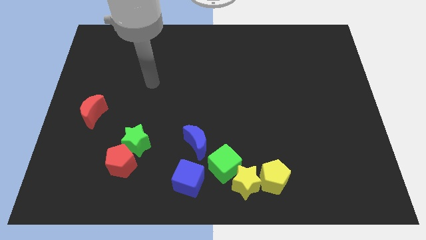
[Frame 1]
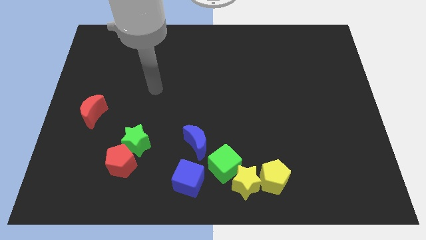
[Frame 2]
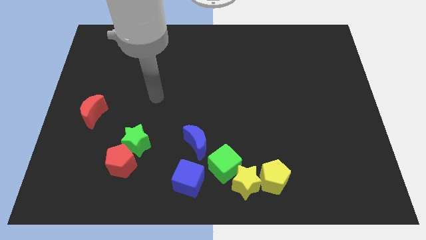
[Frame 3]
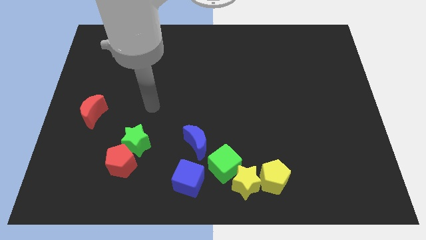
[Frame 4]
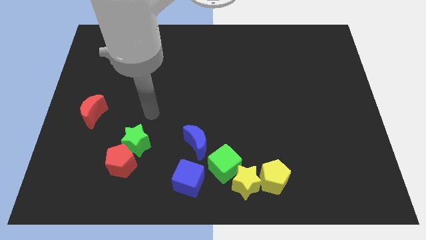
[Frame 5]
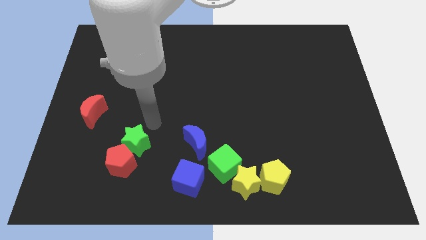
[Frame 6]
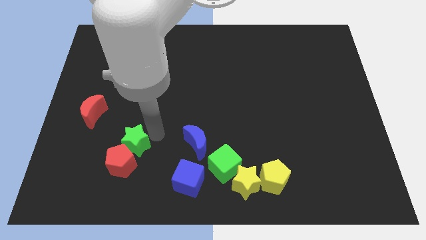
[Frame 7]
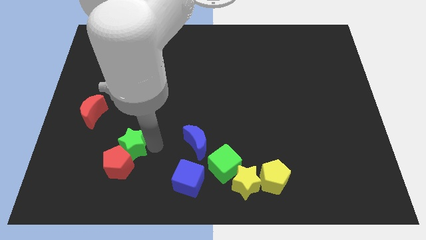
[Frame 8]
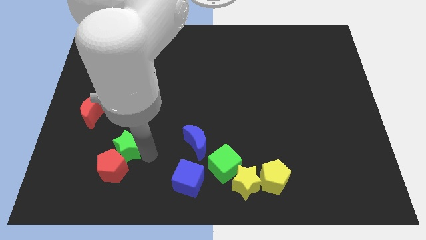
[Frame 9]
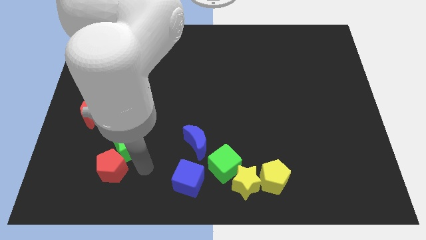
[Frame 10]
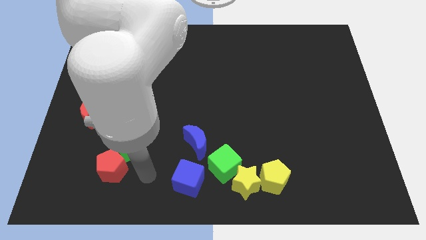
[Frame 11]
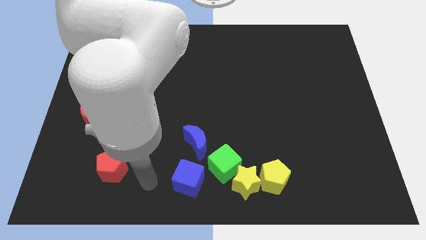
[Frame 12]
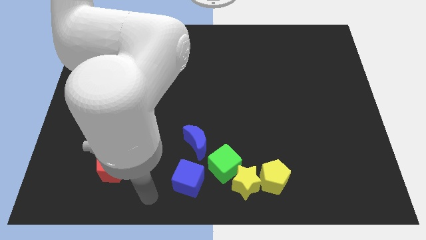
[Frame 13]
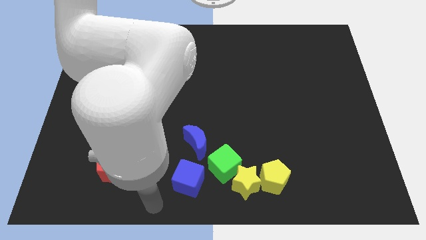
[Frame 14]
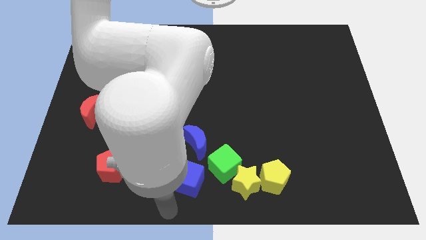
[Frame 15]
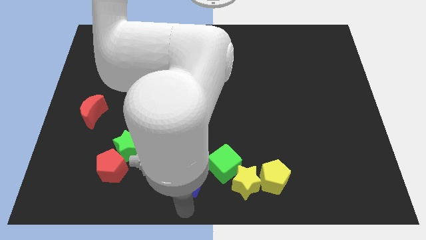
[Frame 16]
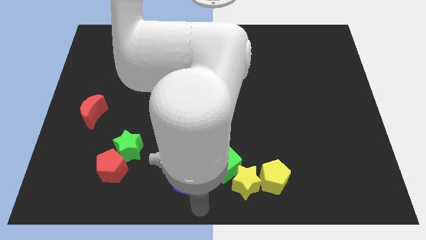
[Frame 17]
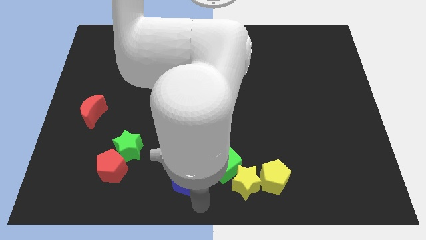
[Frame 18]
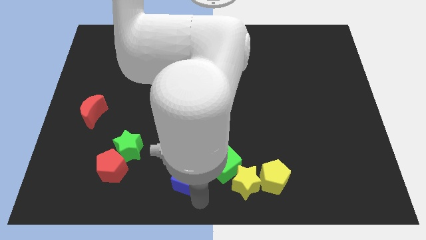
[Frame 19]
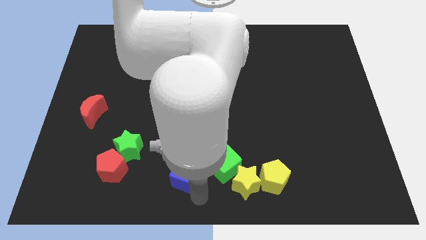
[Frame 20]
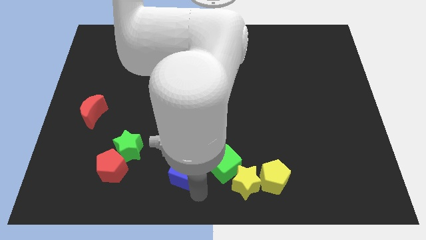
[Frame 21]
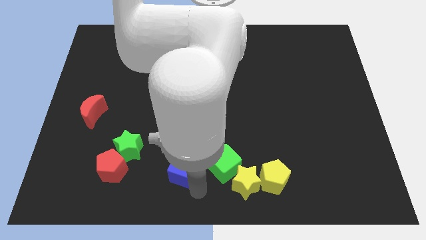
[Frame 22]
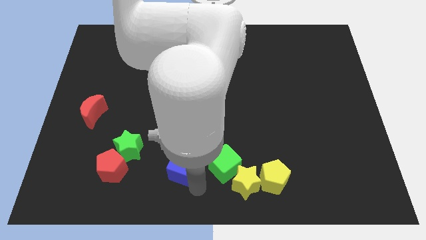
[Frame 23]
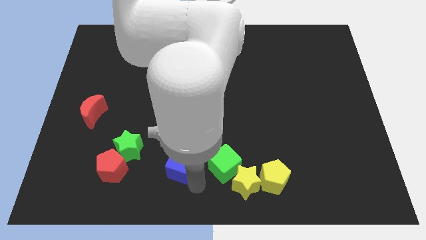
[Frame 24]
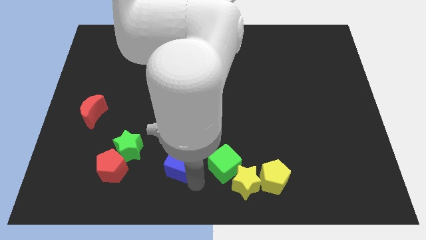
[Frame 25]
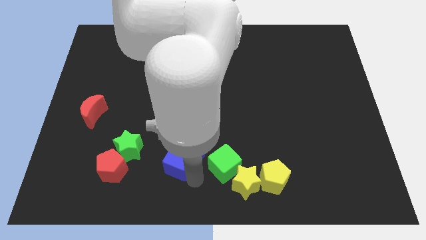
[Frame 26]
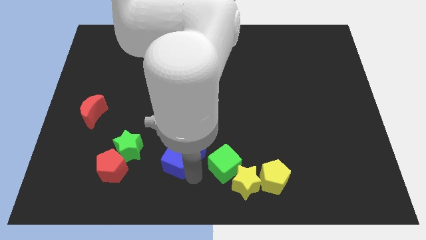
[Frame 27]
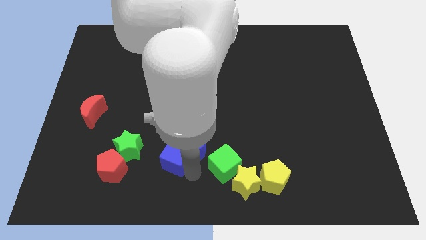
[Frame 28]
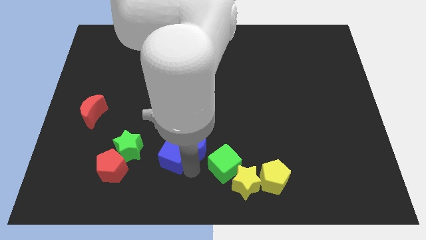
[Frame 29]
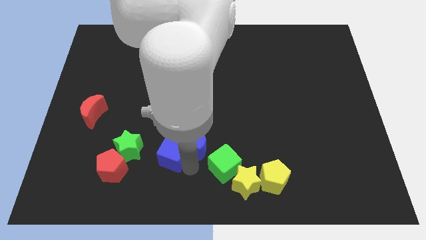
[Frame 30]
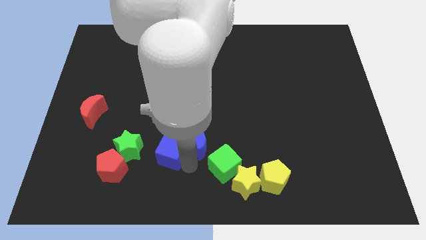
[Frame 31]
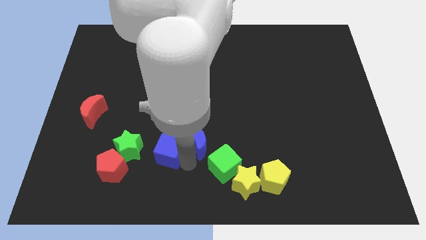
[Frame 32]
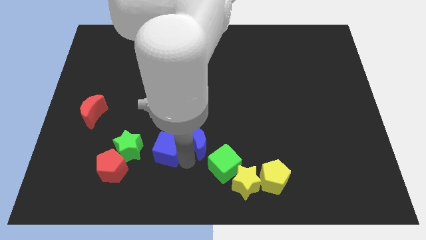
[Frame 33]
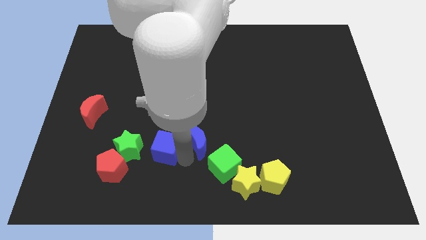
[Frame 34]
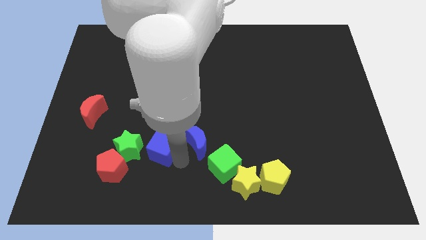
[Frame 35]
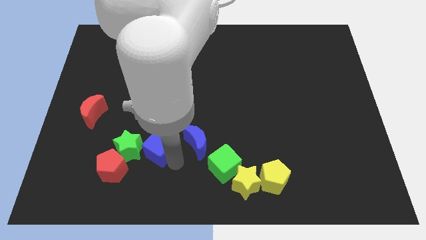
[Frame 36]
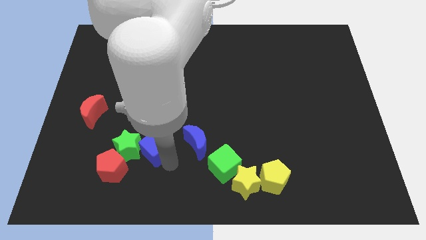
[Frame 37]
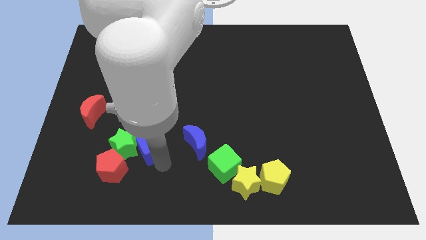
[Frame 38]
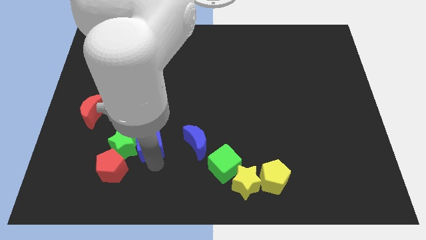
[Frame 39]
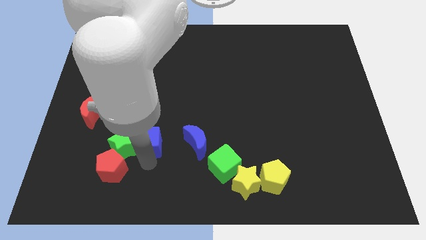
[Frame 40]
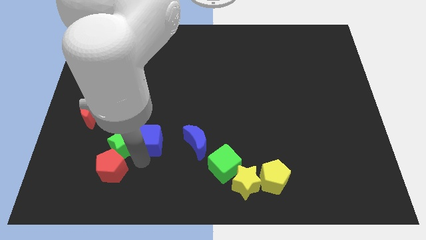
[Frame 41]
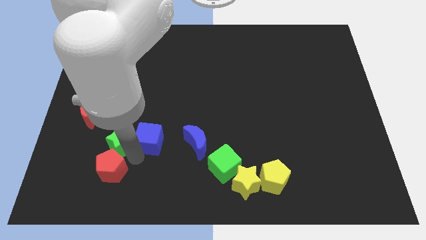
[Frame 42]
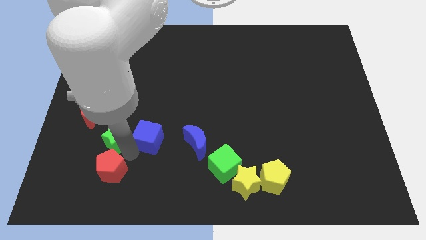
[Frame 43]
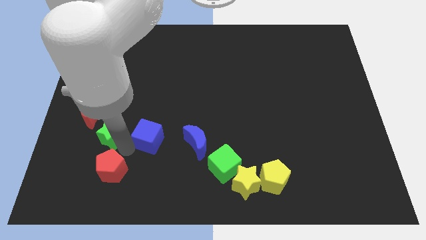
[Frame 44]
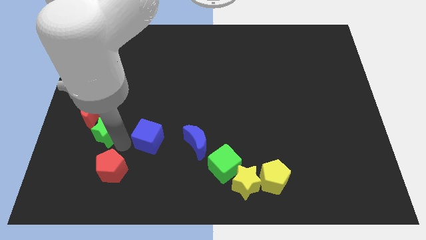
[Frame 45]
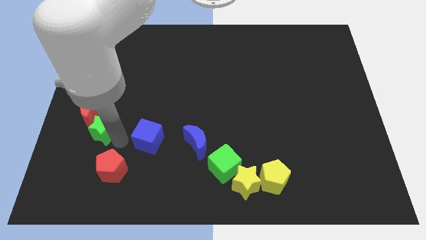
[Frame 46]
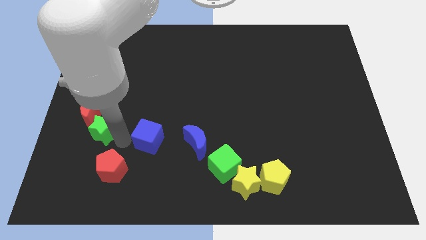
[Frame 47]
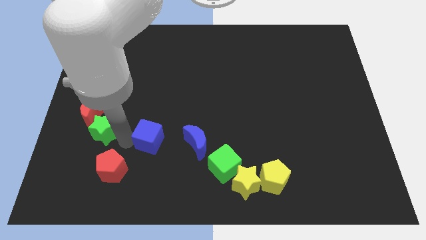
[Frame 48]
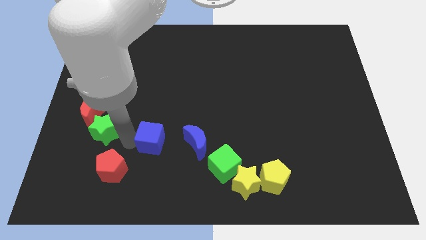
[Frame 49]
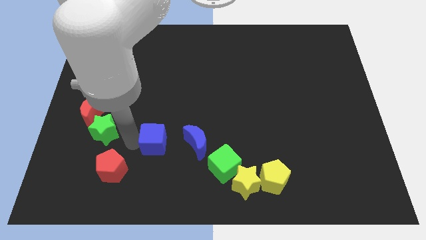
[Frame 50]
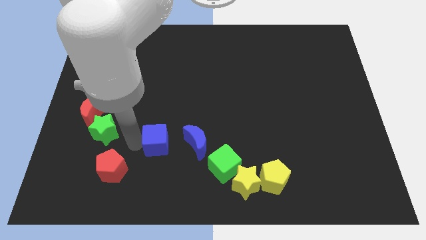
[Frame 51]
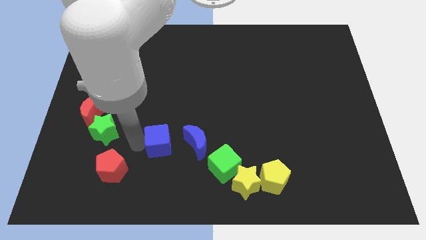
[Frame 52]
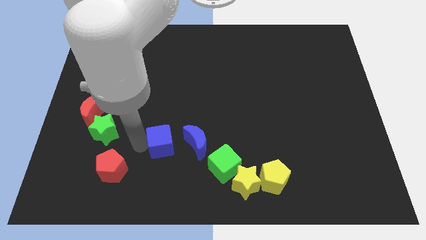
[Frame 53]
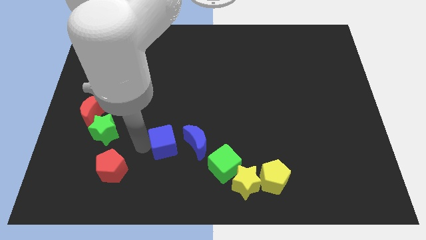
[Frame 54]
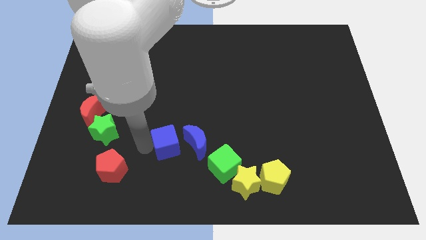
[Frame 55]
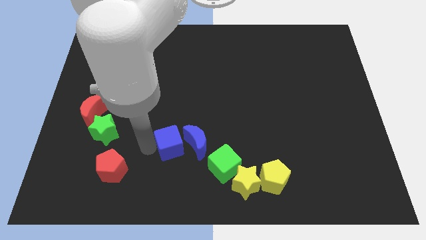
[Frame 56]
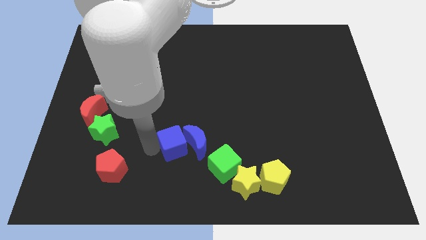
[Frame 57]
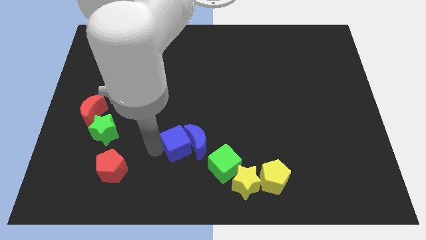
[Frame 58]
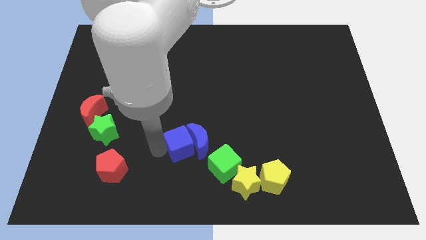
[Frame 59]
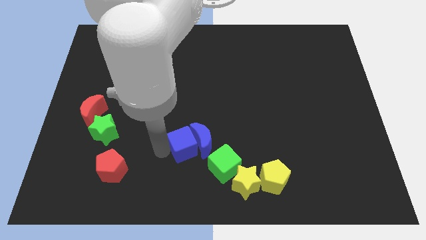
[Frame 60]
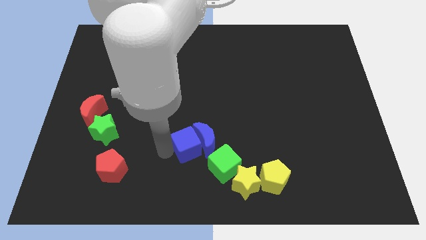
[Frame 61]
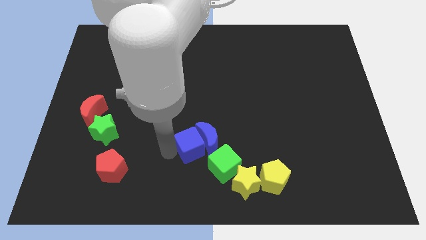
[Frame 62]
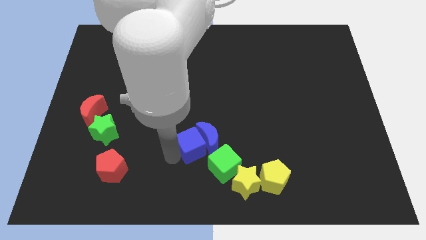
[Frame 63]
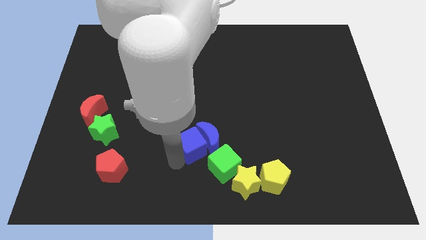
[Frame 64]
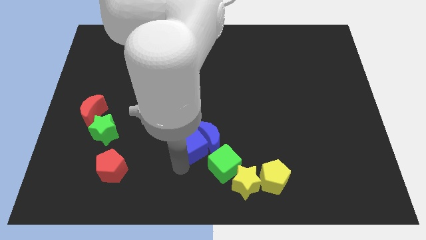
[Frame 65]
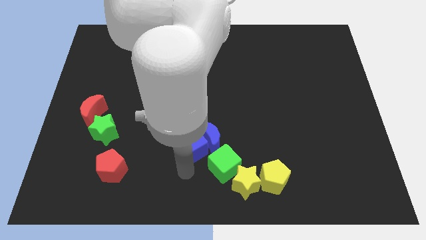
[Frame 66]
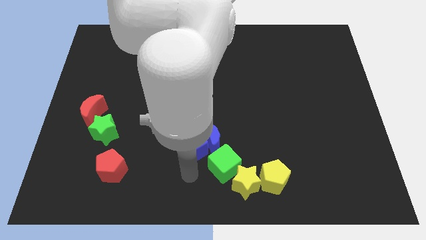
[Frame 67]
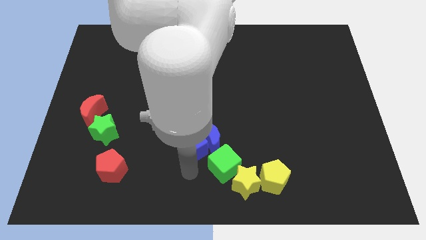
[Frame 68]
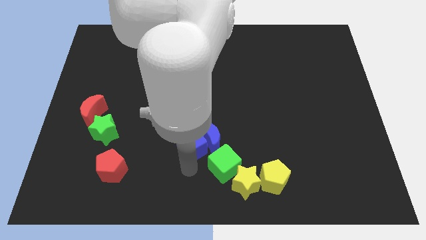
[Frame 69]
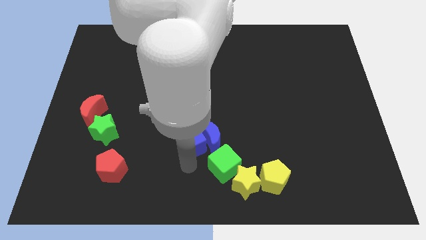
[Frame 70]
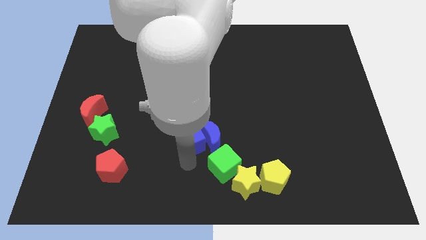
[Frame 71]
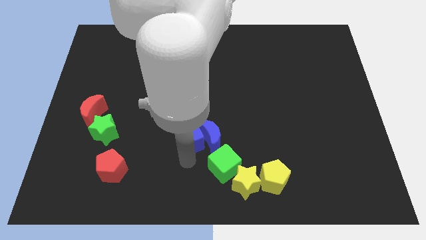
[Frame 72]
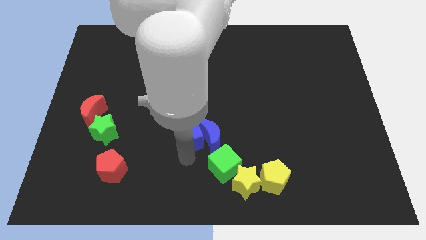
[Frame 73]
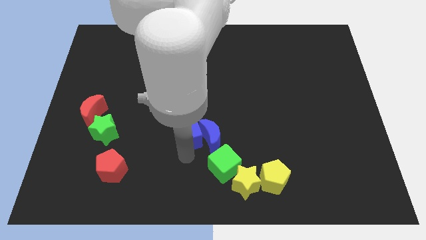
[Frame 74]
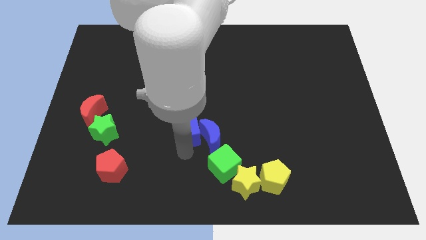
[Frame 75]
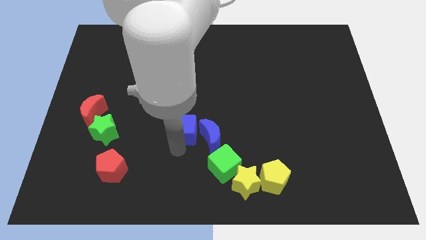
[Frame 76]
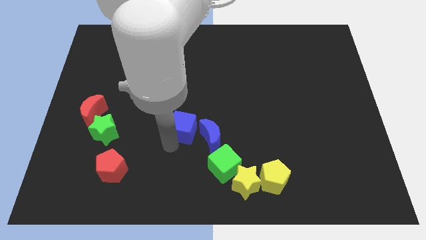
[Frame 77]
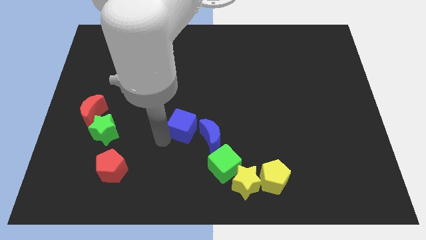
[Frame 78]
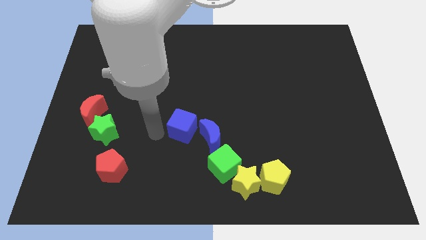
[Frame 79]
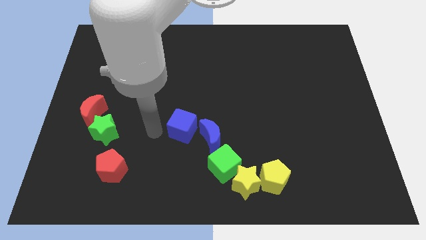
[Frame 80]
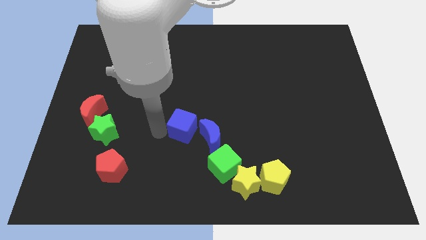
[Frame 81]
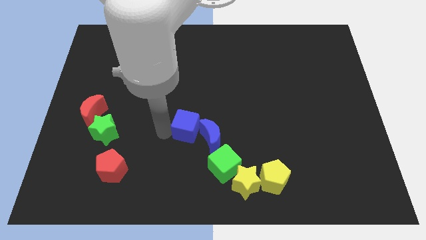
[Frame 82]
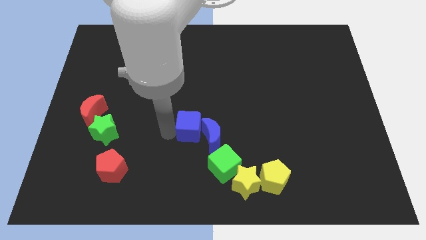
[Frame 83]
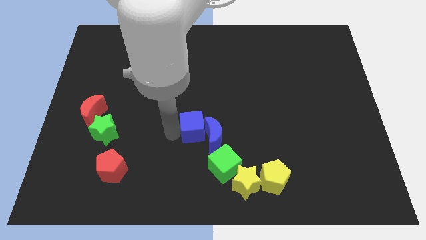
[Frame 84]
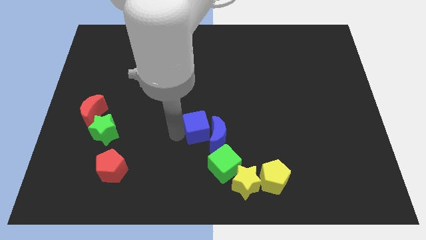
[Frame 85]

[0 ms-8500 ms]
slightly slide the blue cube upwards and right diagonally
